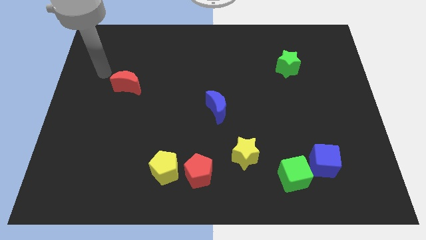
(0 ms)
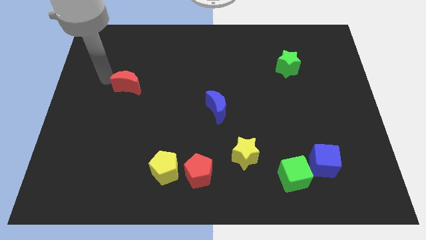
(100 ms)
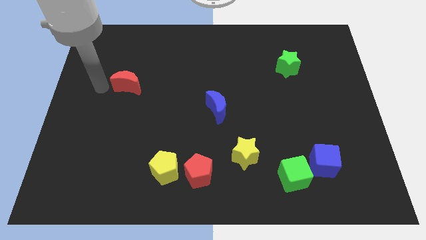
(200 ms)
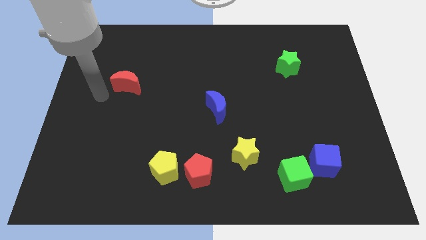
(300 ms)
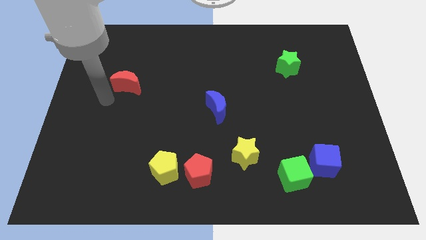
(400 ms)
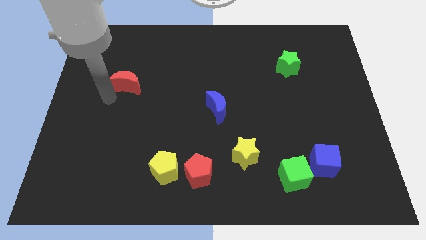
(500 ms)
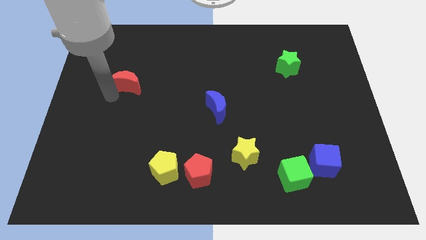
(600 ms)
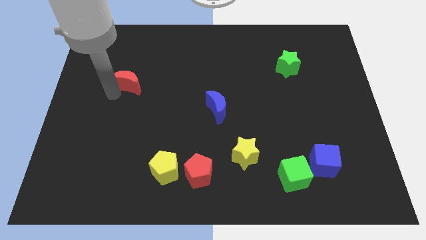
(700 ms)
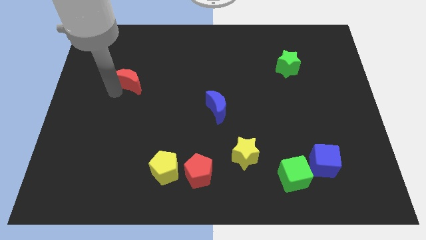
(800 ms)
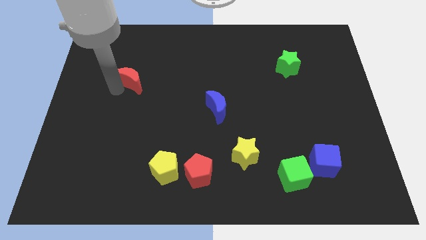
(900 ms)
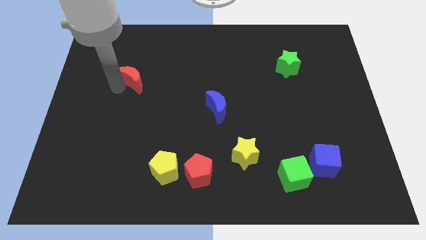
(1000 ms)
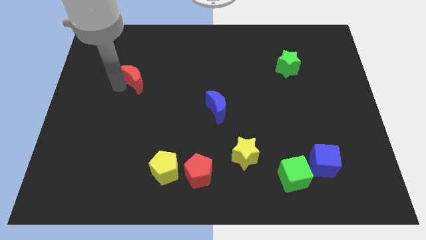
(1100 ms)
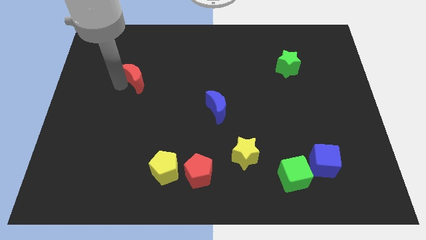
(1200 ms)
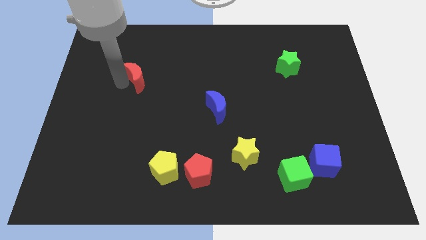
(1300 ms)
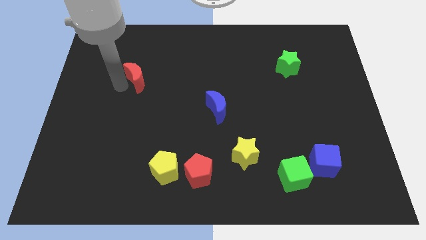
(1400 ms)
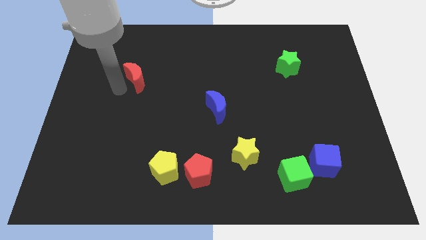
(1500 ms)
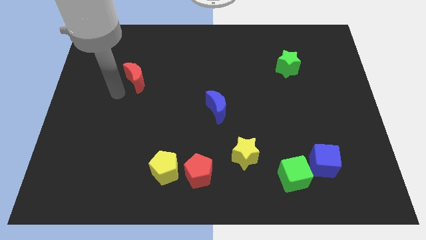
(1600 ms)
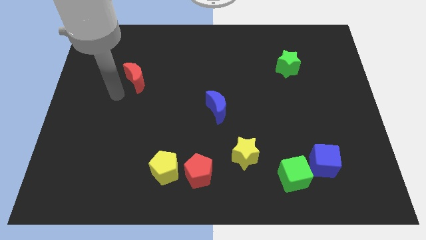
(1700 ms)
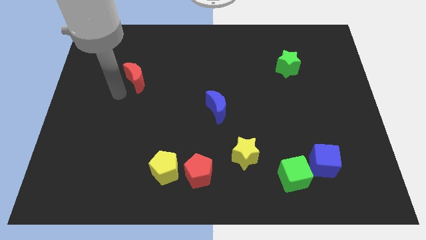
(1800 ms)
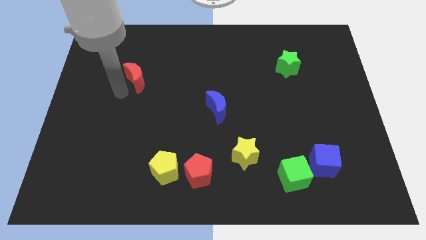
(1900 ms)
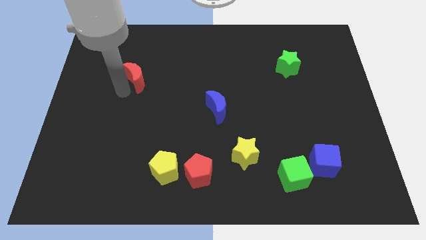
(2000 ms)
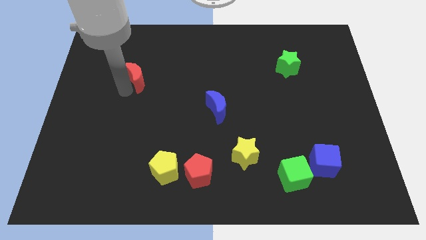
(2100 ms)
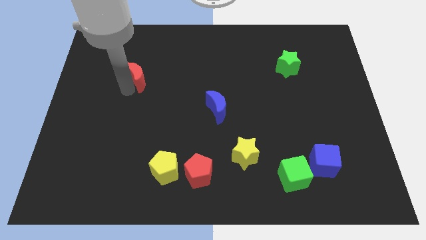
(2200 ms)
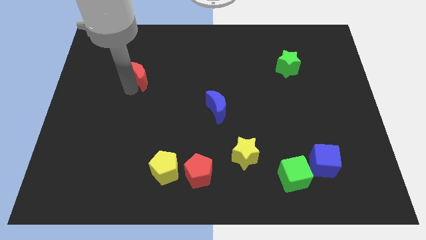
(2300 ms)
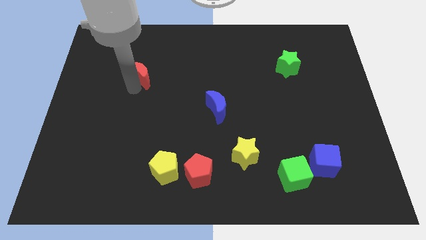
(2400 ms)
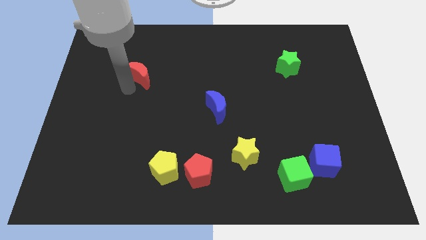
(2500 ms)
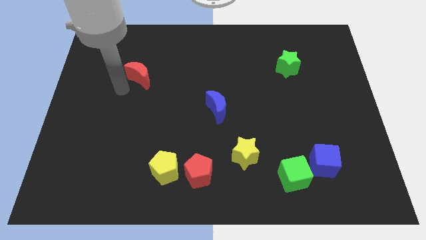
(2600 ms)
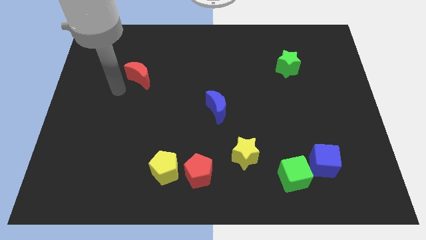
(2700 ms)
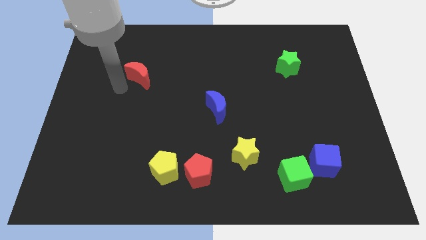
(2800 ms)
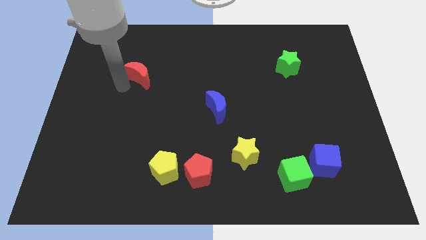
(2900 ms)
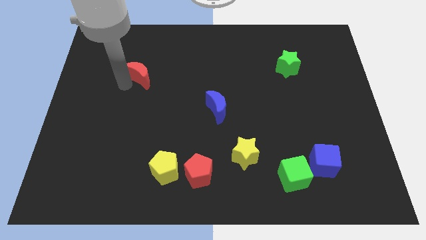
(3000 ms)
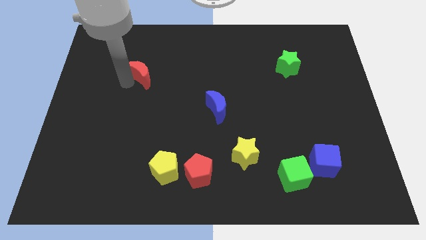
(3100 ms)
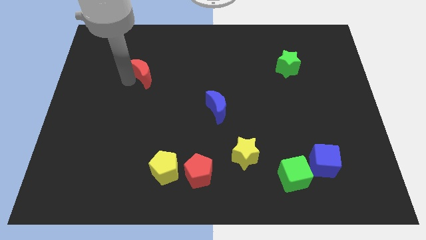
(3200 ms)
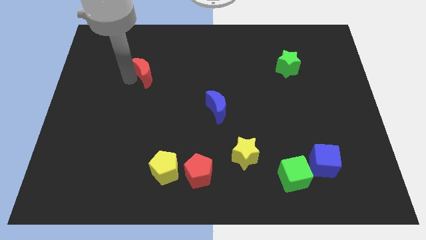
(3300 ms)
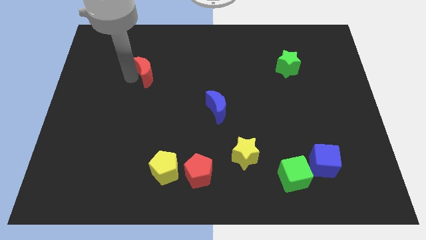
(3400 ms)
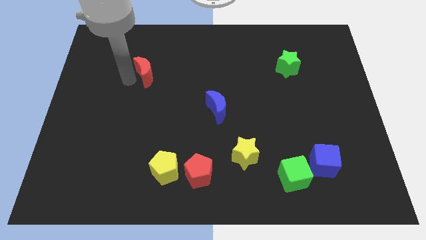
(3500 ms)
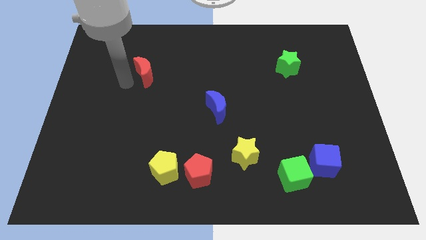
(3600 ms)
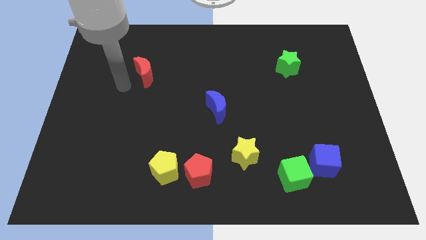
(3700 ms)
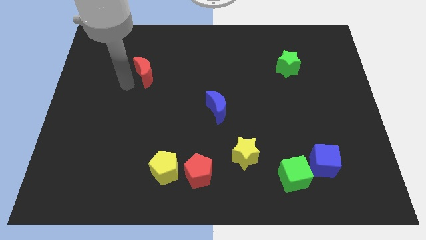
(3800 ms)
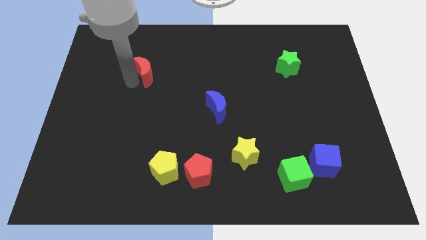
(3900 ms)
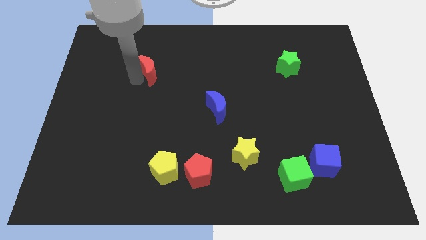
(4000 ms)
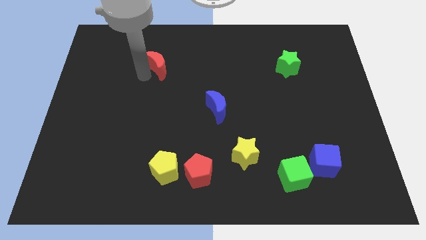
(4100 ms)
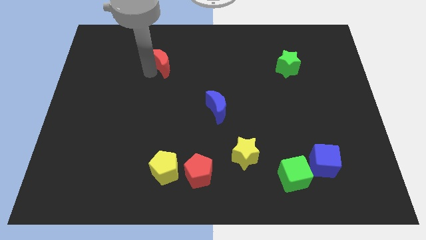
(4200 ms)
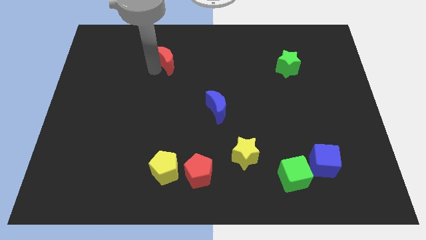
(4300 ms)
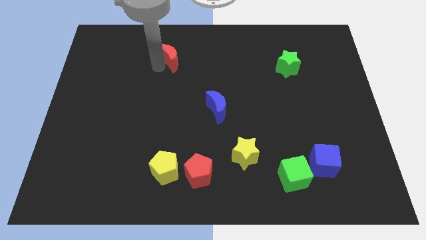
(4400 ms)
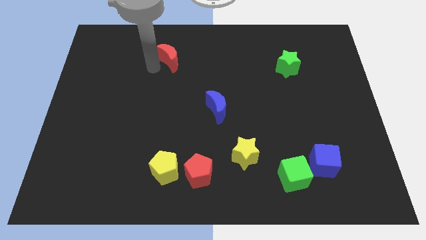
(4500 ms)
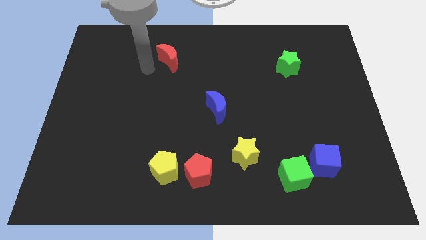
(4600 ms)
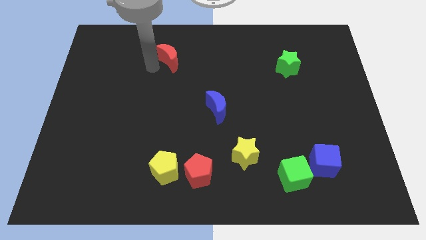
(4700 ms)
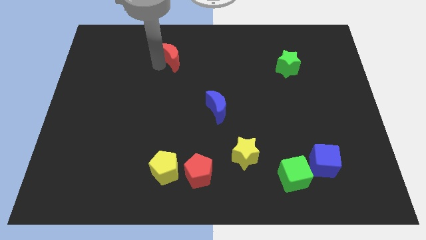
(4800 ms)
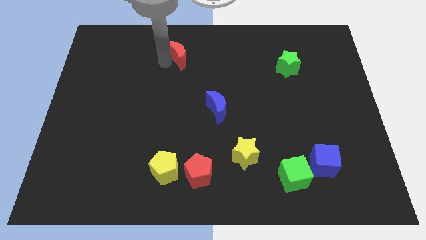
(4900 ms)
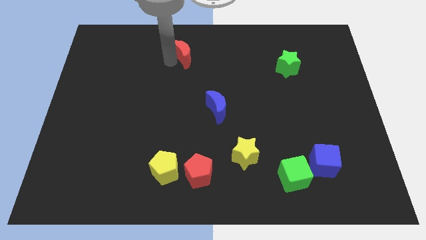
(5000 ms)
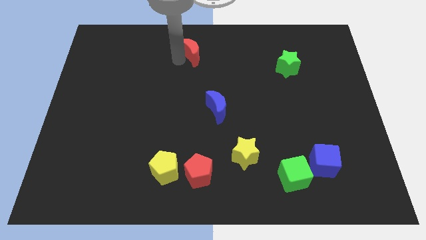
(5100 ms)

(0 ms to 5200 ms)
slide the red moon to the top side

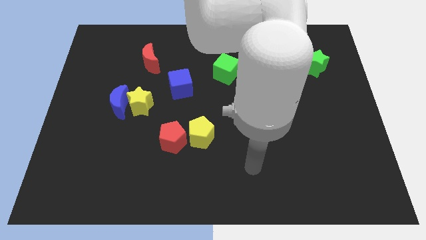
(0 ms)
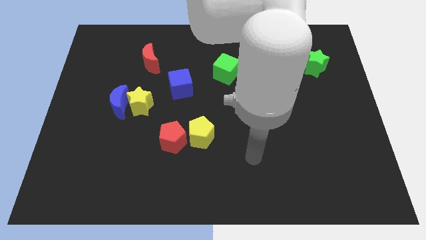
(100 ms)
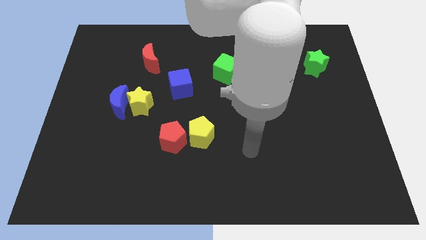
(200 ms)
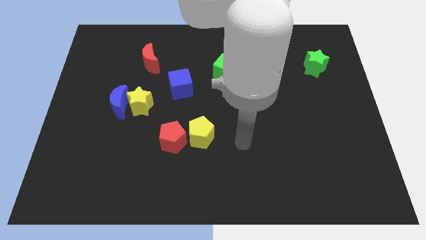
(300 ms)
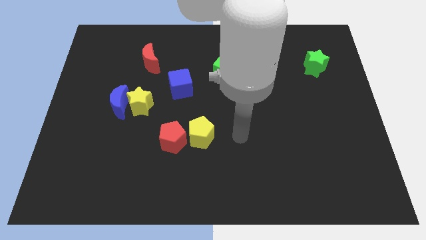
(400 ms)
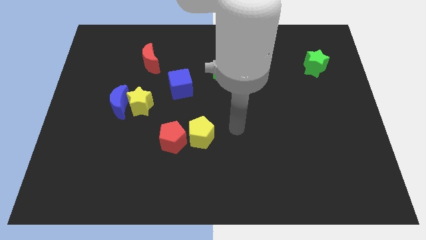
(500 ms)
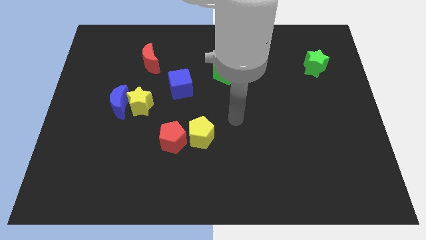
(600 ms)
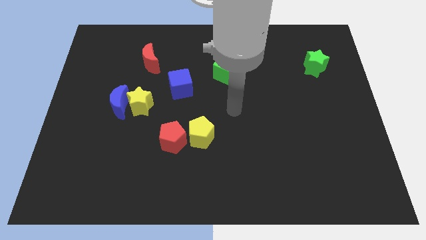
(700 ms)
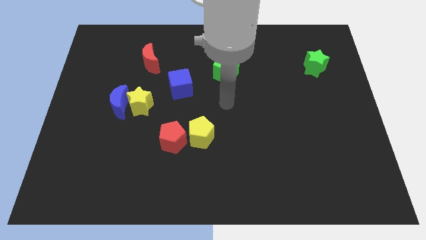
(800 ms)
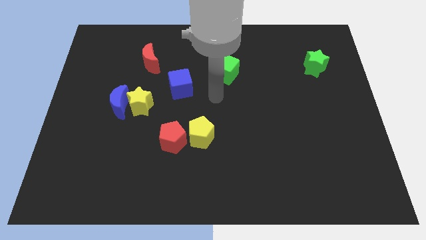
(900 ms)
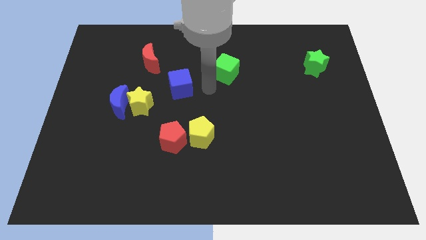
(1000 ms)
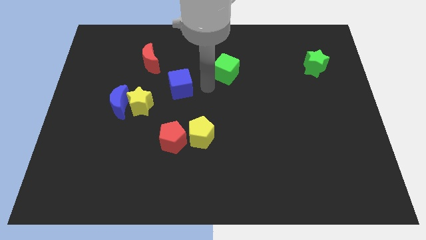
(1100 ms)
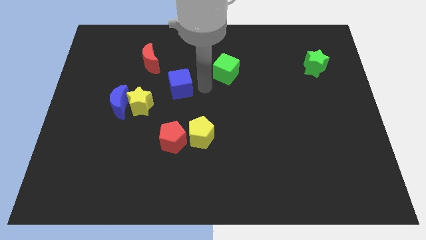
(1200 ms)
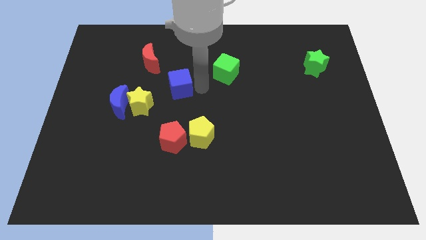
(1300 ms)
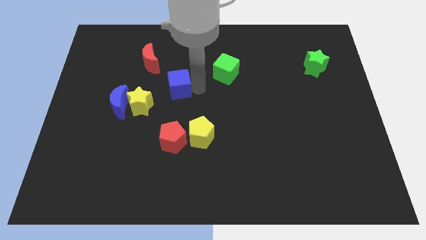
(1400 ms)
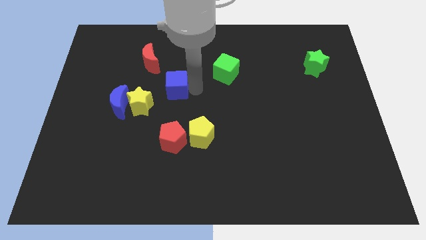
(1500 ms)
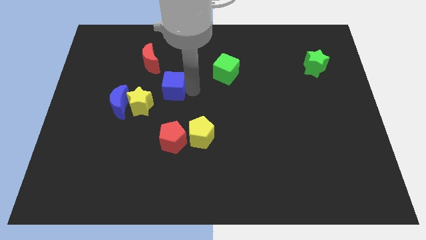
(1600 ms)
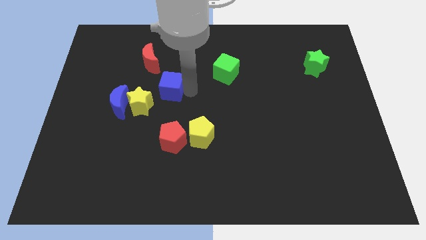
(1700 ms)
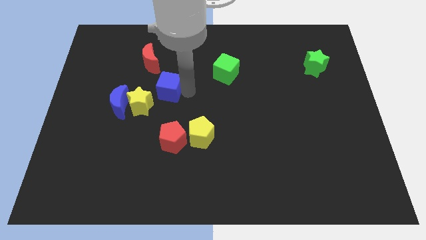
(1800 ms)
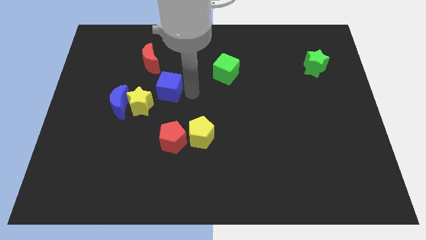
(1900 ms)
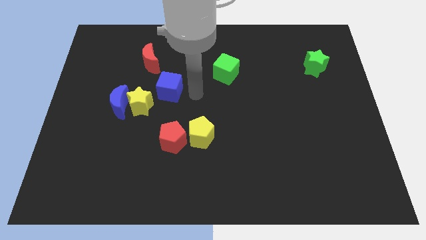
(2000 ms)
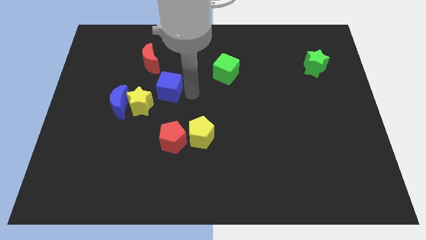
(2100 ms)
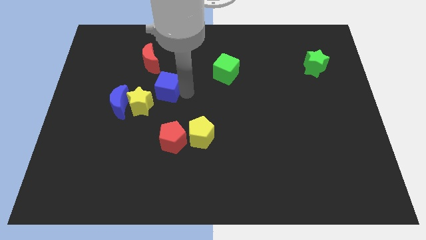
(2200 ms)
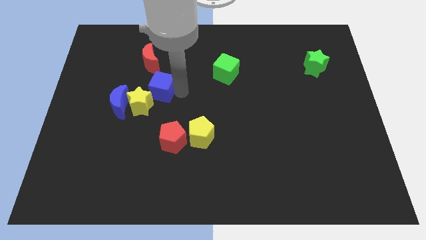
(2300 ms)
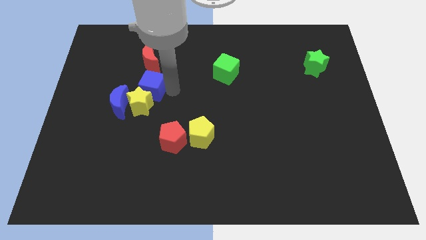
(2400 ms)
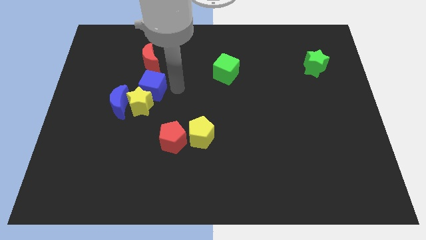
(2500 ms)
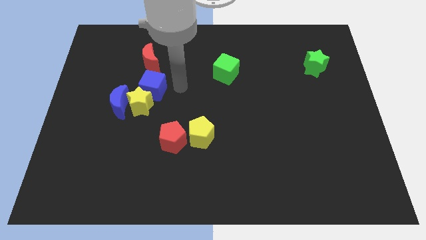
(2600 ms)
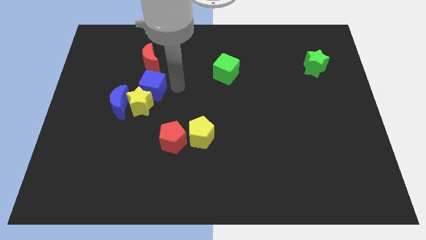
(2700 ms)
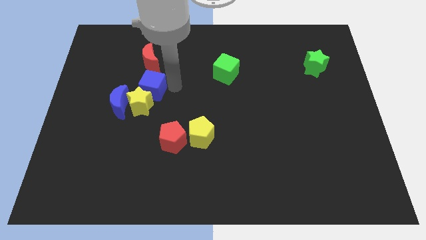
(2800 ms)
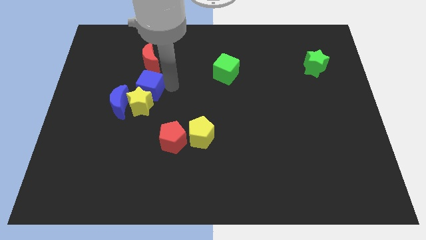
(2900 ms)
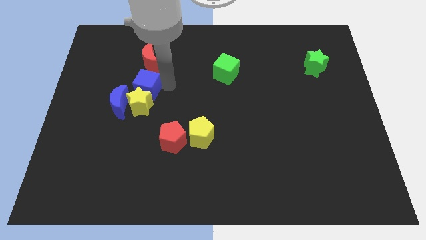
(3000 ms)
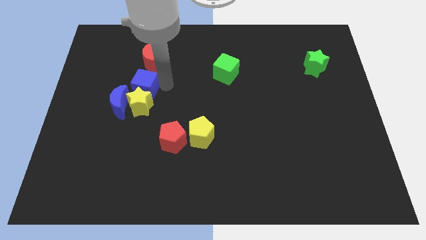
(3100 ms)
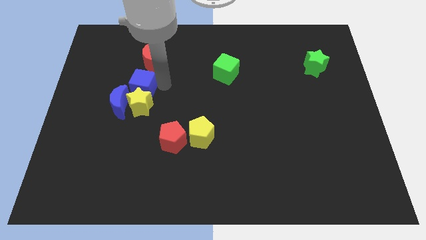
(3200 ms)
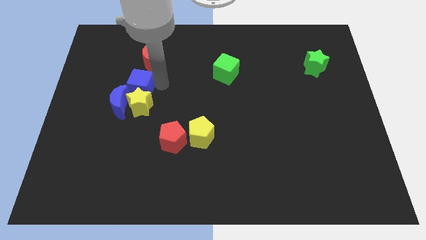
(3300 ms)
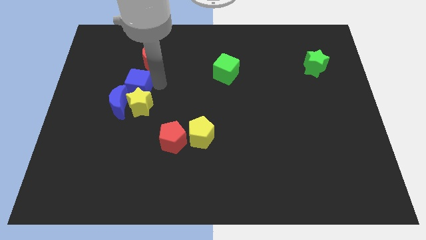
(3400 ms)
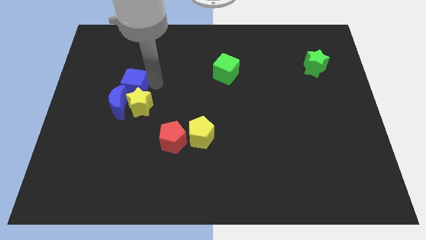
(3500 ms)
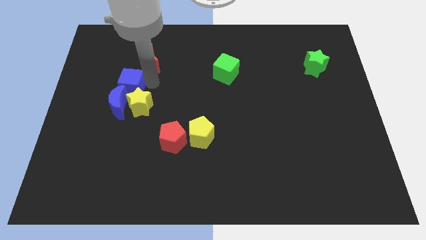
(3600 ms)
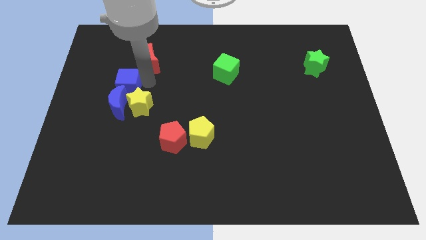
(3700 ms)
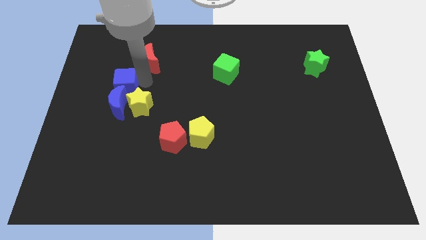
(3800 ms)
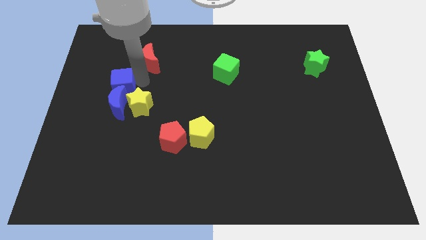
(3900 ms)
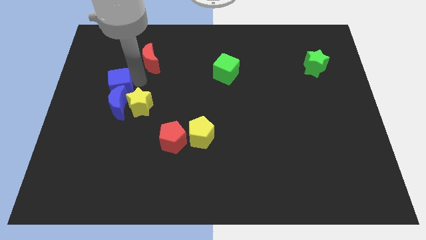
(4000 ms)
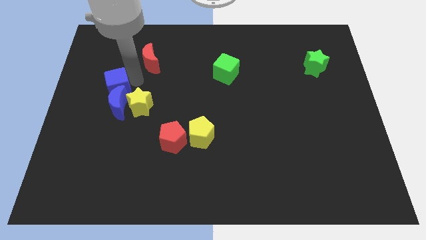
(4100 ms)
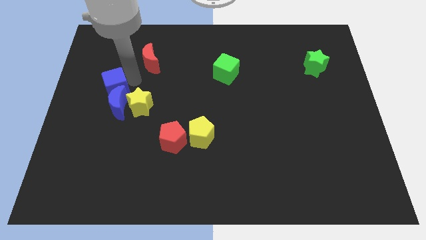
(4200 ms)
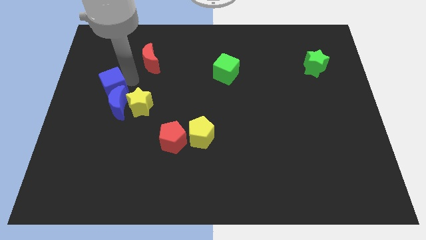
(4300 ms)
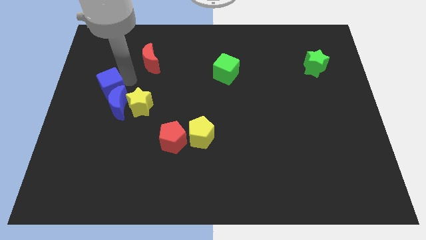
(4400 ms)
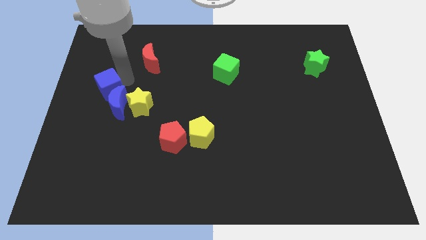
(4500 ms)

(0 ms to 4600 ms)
slide the blue cube to the center left
